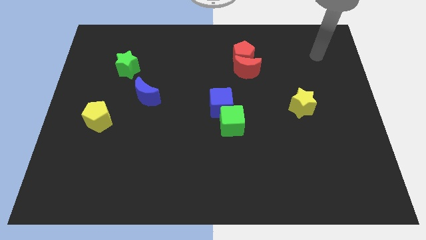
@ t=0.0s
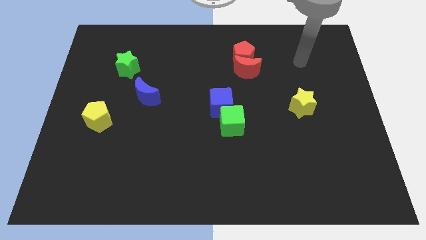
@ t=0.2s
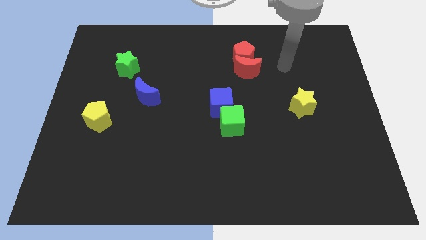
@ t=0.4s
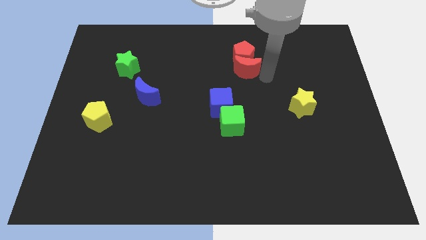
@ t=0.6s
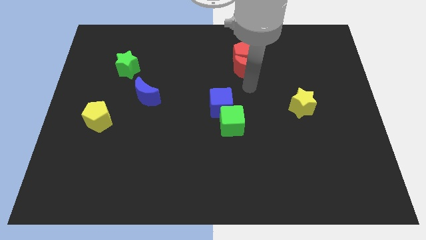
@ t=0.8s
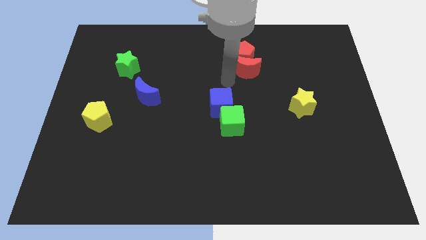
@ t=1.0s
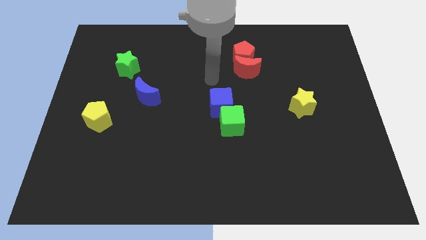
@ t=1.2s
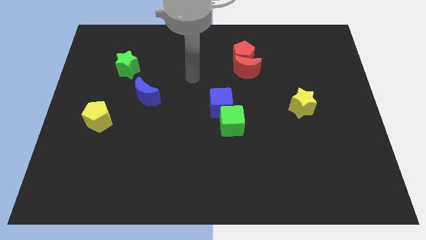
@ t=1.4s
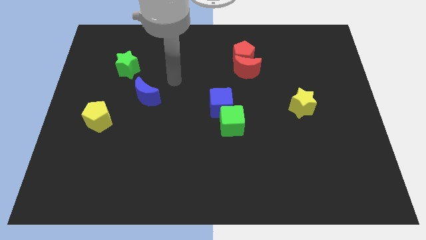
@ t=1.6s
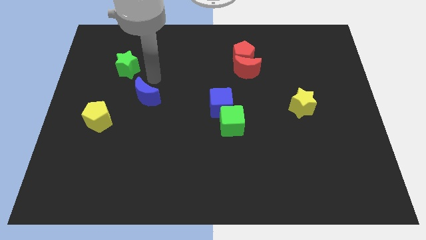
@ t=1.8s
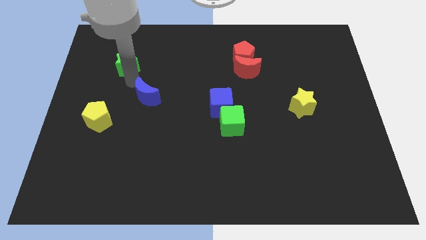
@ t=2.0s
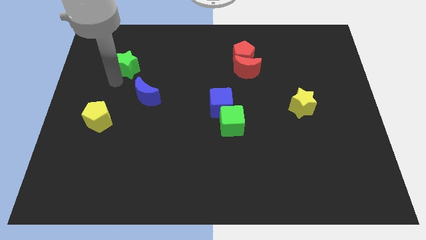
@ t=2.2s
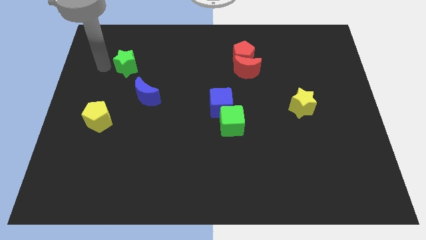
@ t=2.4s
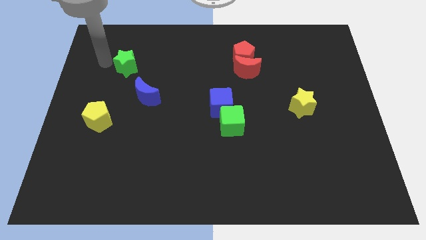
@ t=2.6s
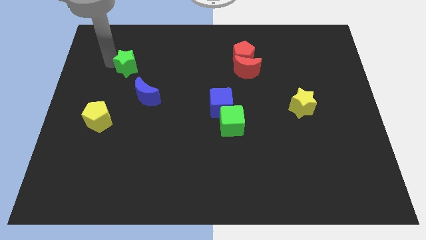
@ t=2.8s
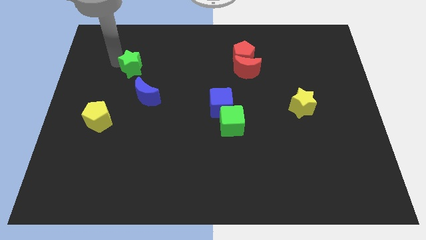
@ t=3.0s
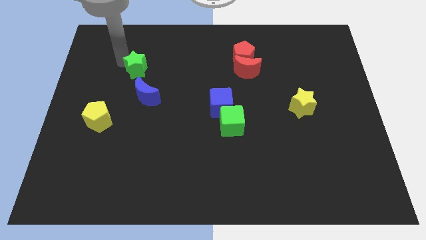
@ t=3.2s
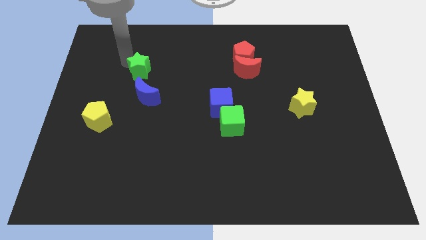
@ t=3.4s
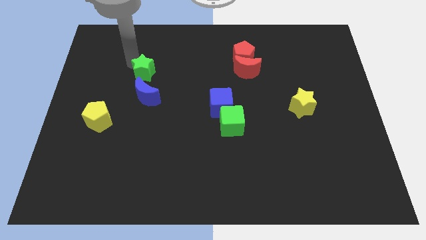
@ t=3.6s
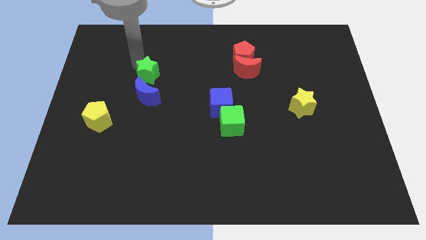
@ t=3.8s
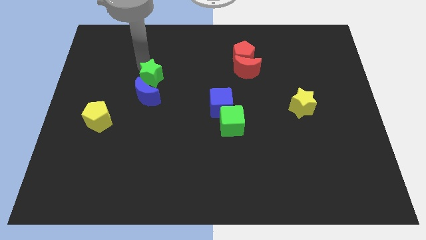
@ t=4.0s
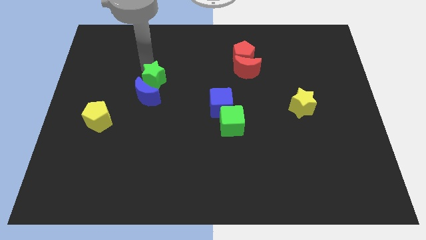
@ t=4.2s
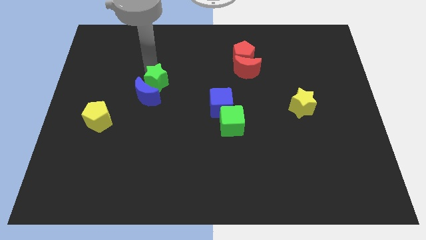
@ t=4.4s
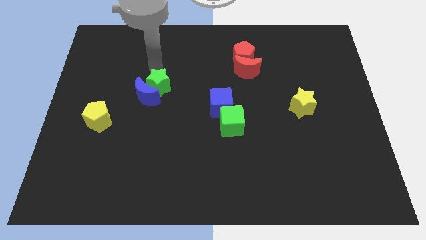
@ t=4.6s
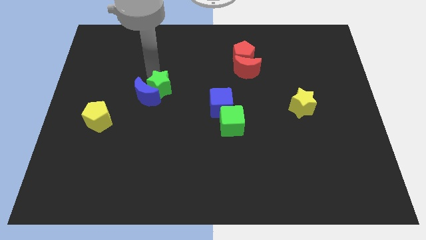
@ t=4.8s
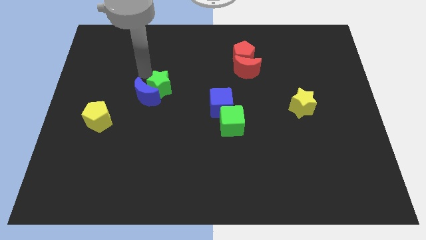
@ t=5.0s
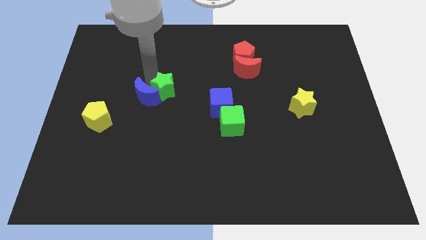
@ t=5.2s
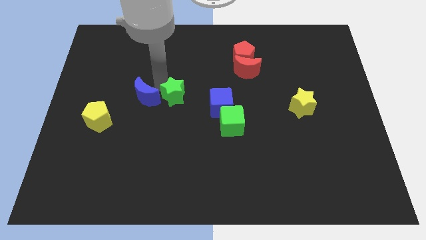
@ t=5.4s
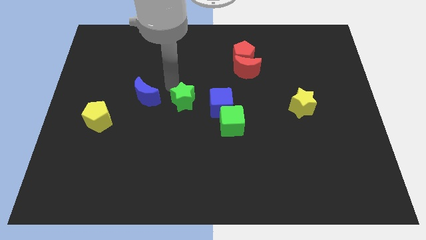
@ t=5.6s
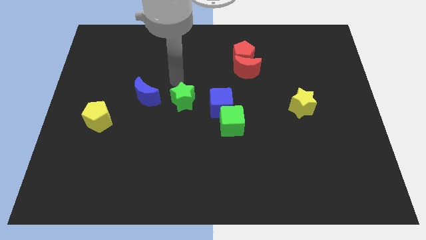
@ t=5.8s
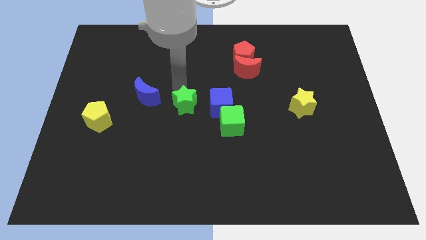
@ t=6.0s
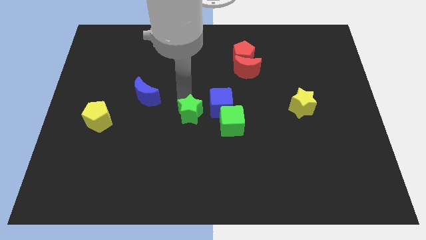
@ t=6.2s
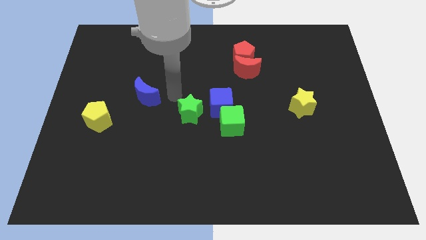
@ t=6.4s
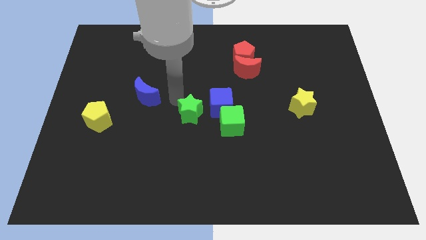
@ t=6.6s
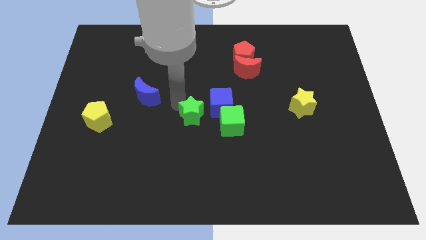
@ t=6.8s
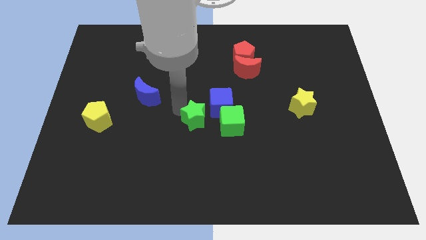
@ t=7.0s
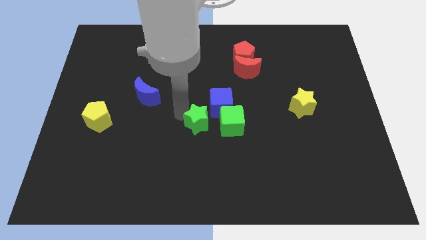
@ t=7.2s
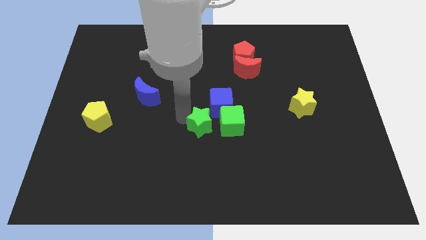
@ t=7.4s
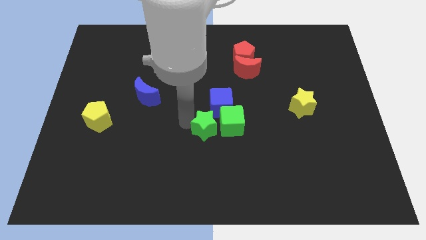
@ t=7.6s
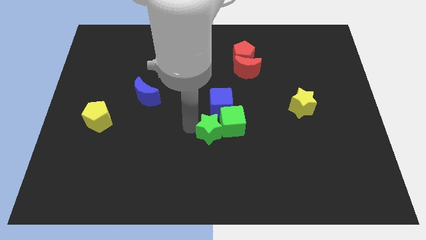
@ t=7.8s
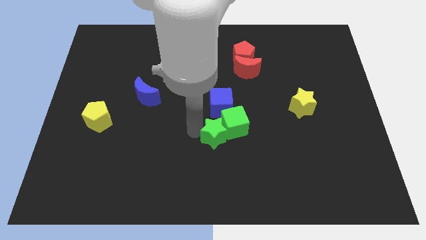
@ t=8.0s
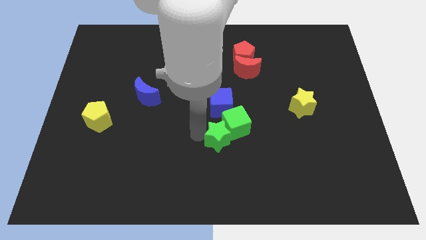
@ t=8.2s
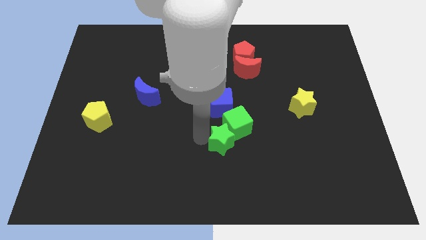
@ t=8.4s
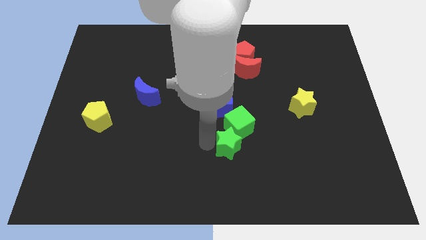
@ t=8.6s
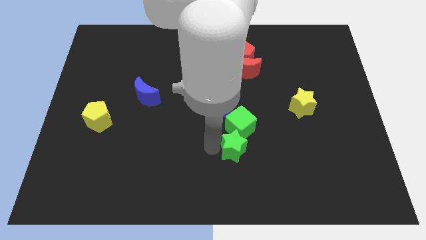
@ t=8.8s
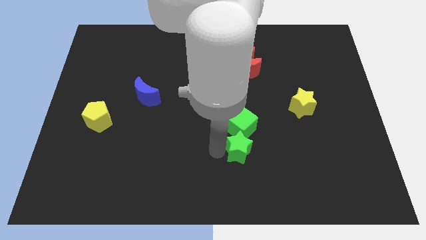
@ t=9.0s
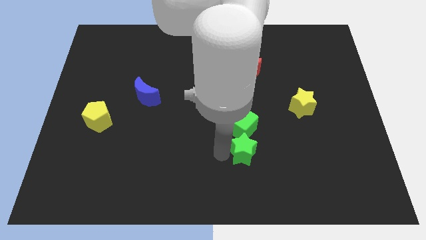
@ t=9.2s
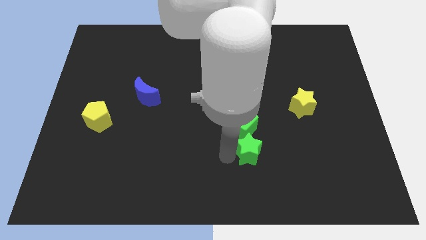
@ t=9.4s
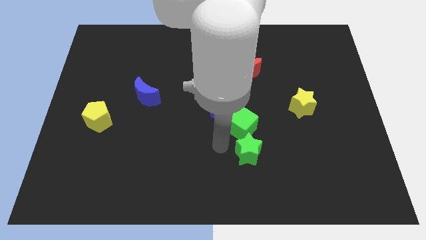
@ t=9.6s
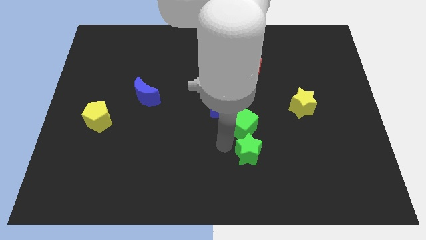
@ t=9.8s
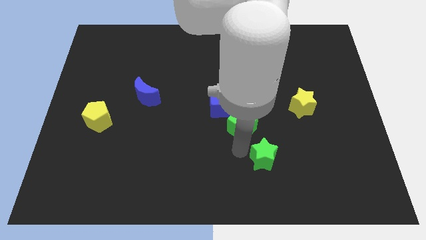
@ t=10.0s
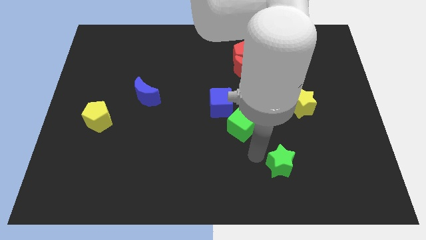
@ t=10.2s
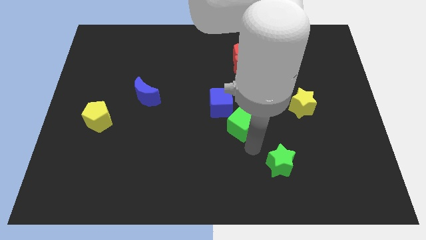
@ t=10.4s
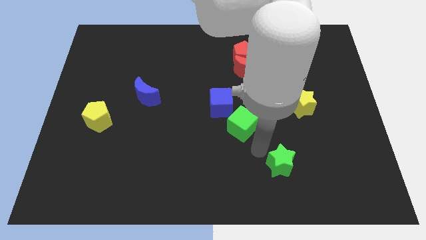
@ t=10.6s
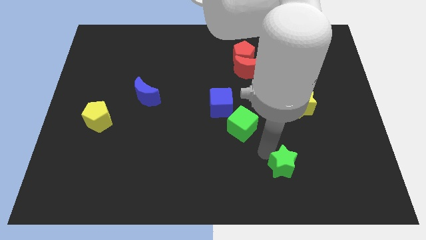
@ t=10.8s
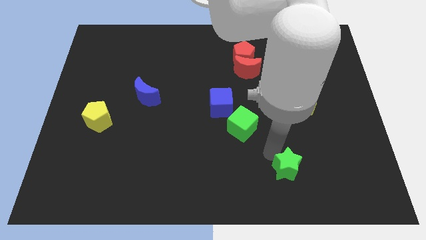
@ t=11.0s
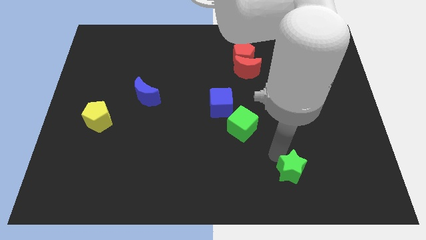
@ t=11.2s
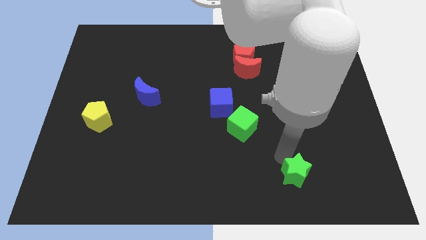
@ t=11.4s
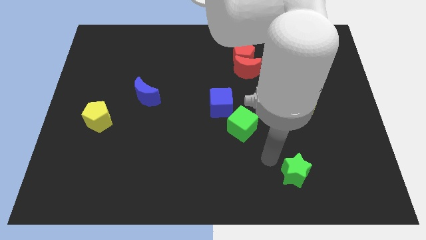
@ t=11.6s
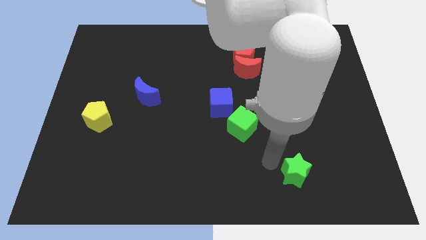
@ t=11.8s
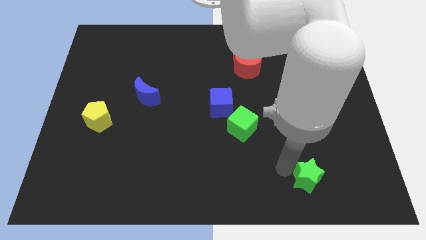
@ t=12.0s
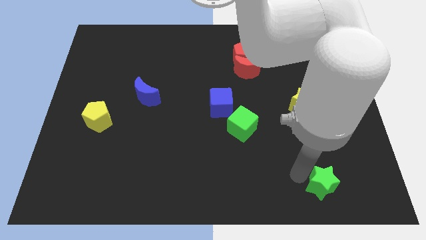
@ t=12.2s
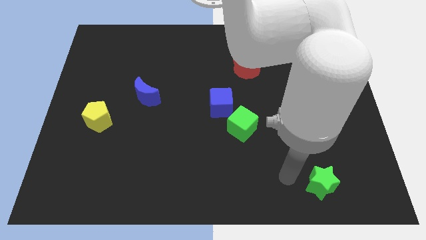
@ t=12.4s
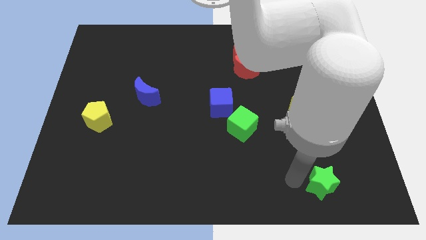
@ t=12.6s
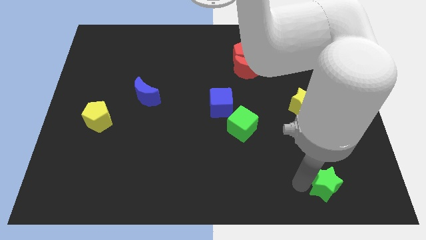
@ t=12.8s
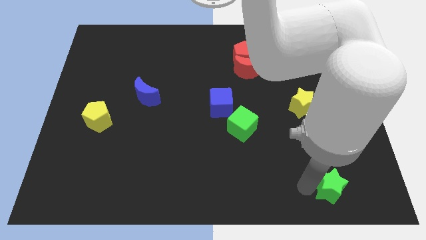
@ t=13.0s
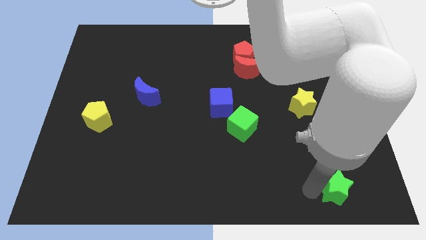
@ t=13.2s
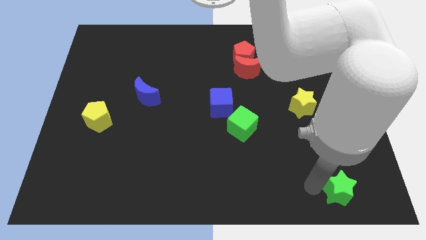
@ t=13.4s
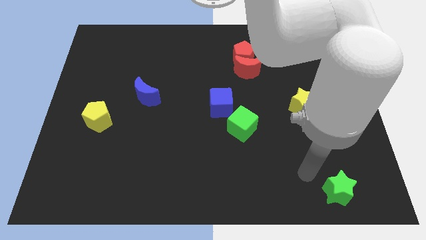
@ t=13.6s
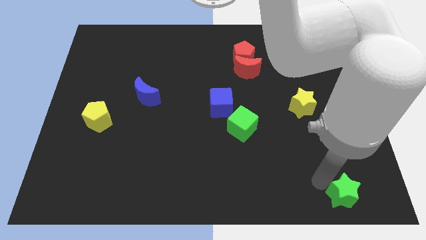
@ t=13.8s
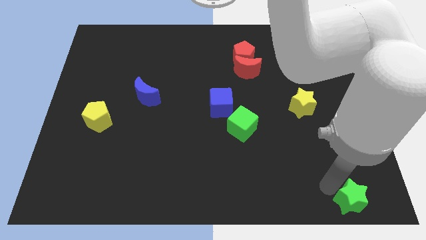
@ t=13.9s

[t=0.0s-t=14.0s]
slide the green star to the lower right corner
